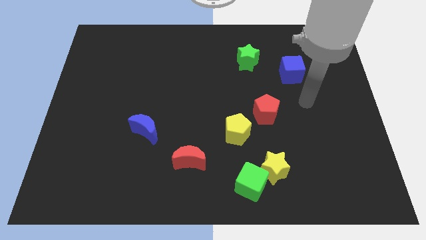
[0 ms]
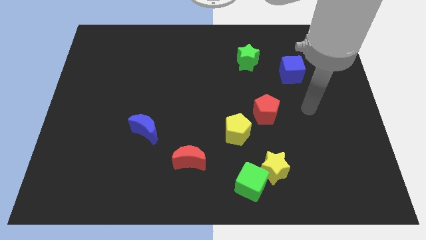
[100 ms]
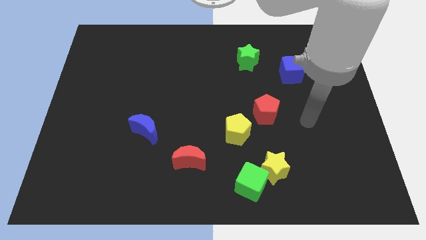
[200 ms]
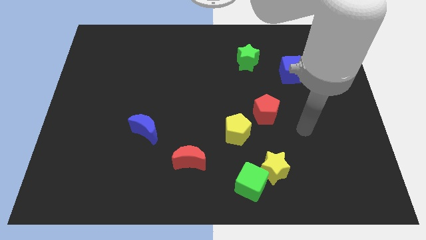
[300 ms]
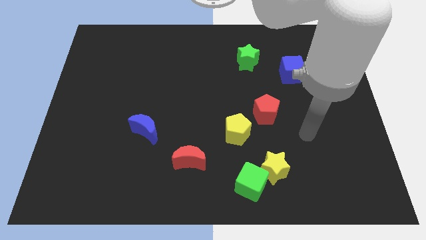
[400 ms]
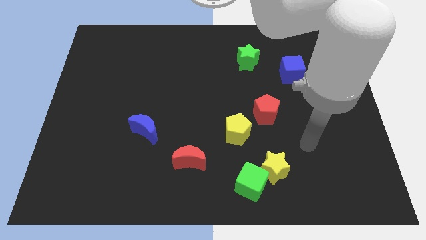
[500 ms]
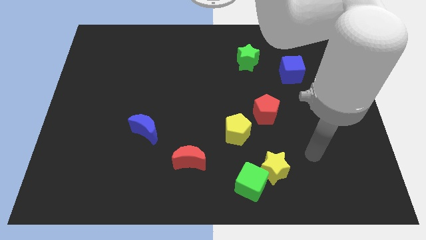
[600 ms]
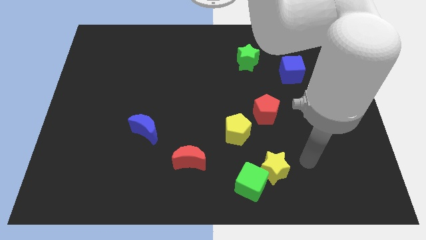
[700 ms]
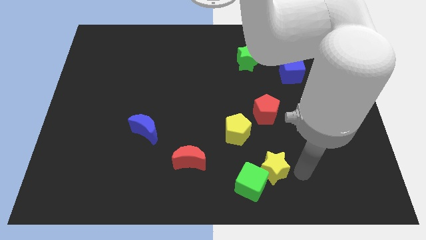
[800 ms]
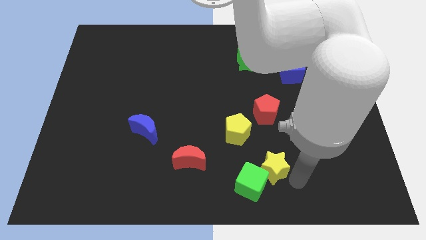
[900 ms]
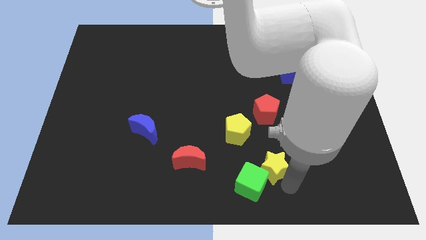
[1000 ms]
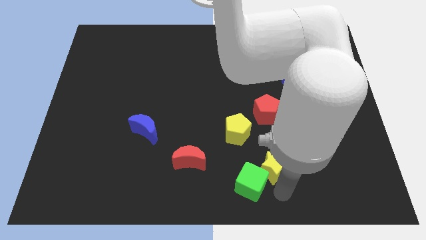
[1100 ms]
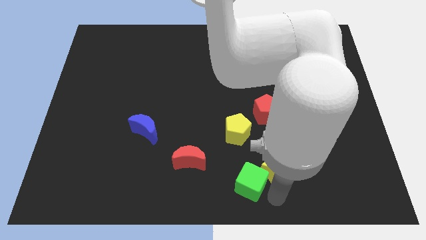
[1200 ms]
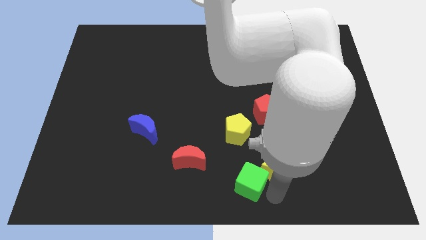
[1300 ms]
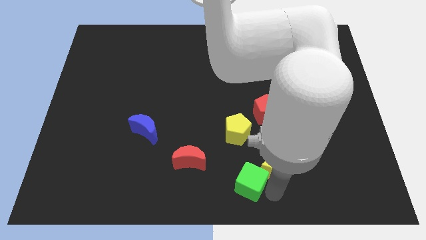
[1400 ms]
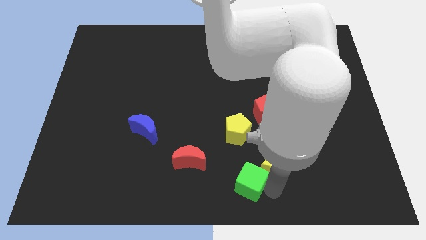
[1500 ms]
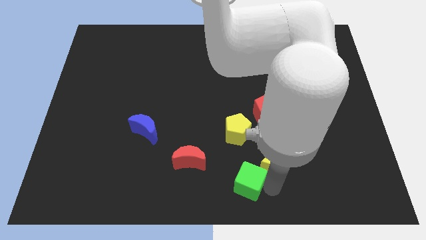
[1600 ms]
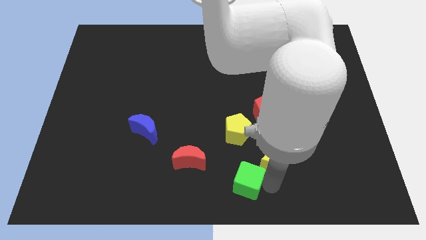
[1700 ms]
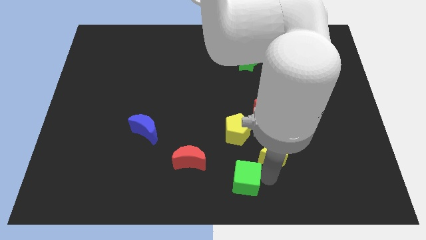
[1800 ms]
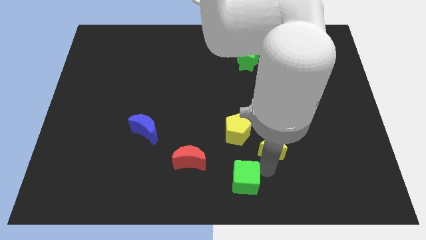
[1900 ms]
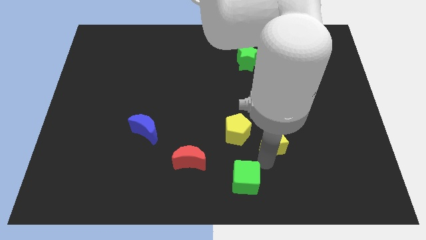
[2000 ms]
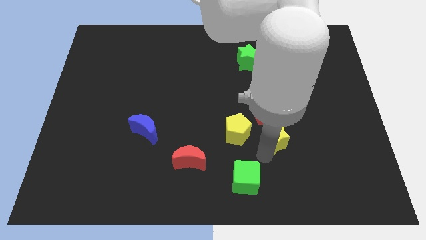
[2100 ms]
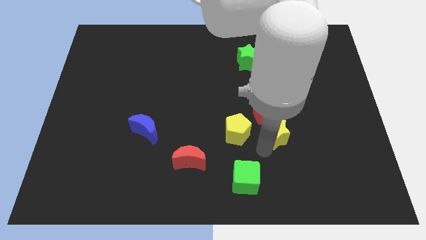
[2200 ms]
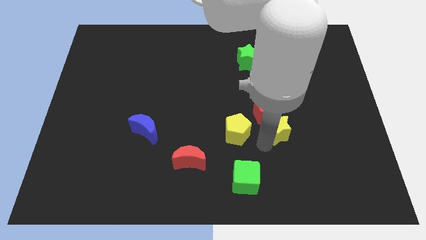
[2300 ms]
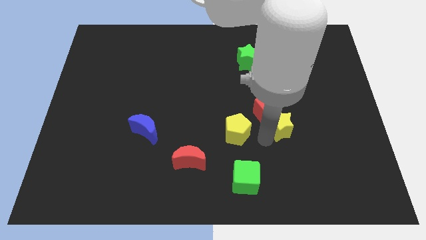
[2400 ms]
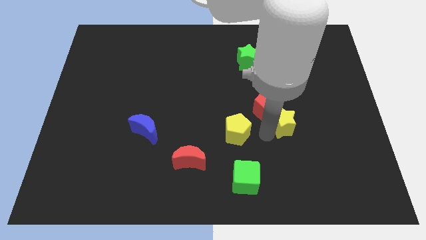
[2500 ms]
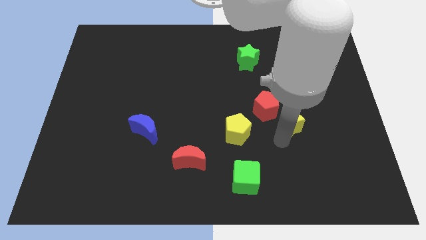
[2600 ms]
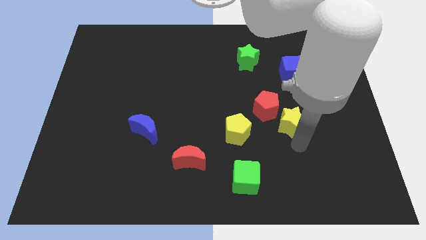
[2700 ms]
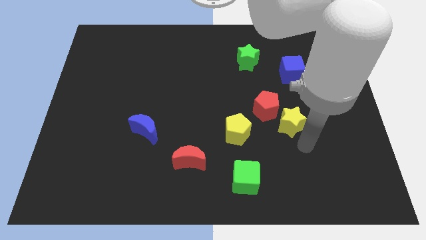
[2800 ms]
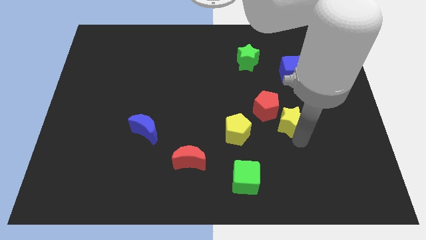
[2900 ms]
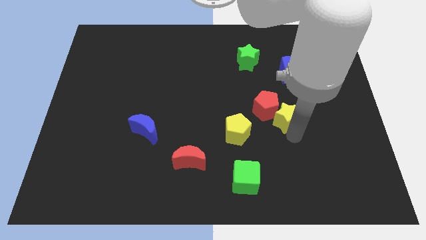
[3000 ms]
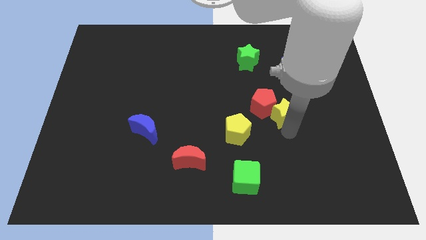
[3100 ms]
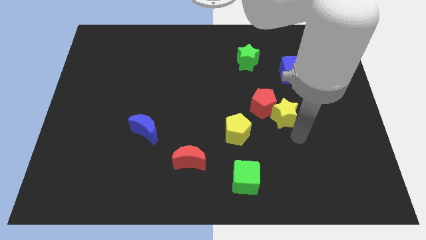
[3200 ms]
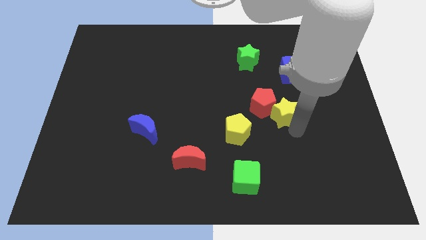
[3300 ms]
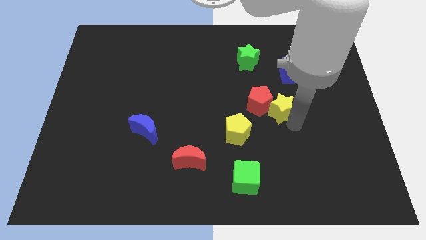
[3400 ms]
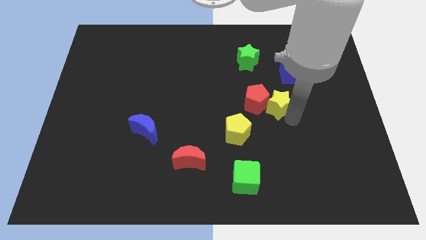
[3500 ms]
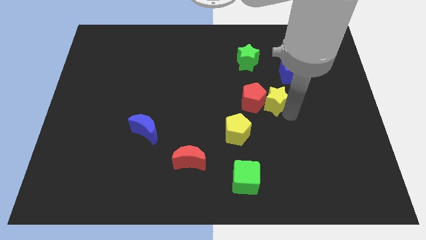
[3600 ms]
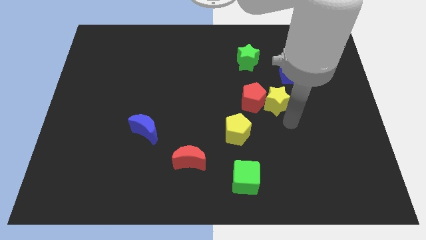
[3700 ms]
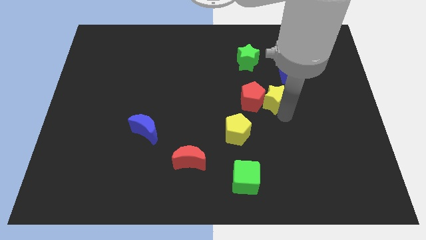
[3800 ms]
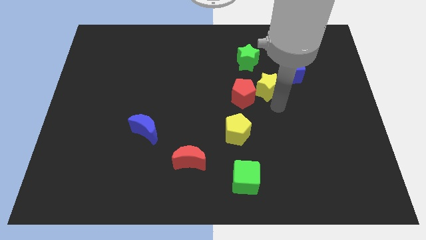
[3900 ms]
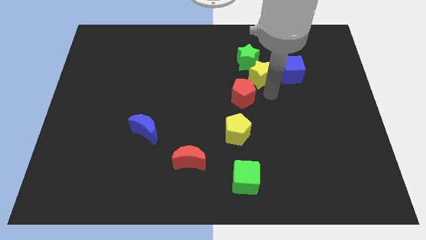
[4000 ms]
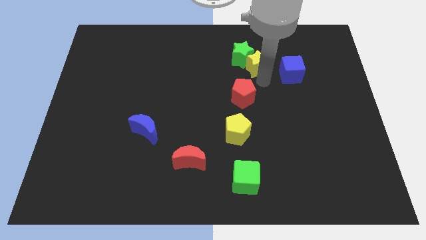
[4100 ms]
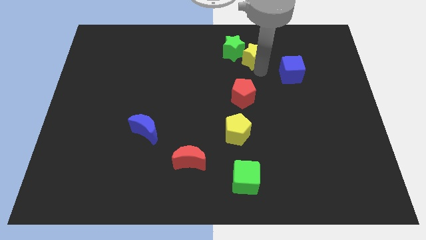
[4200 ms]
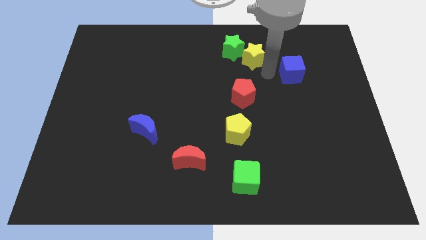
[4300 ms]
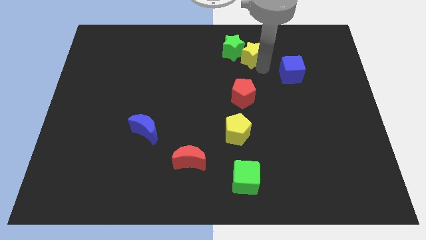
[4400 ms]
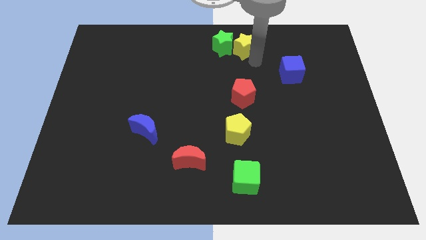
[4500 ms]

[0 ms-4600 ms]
move the yellow star to the towards your base

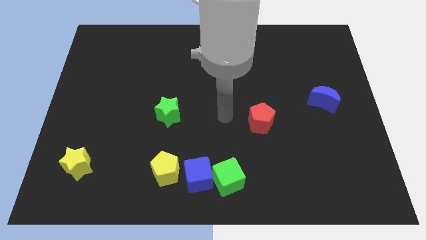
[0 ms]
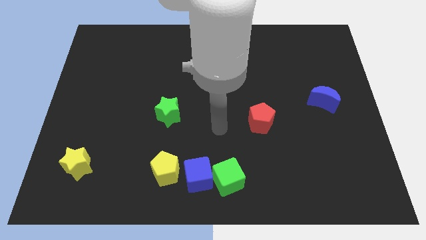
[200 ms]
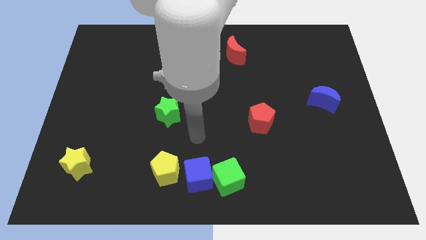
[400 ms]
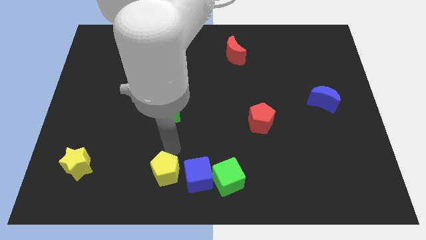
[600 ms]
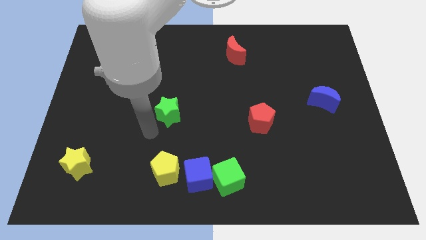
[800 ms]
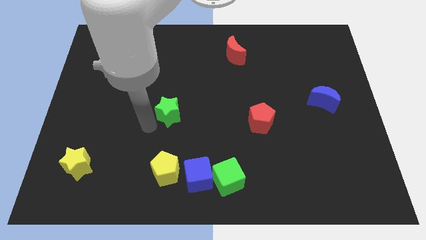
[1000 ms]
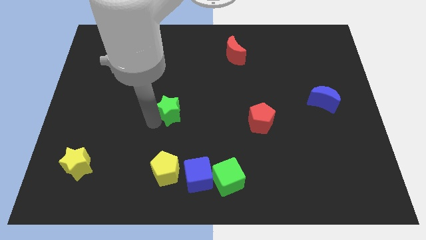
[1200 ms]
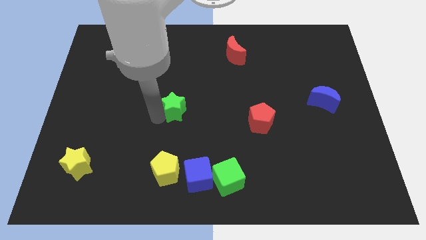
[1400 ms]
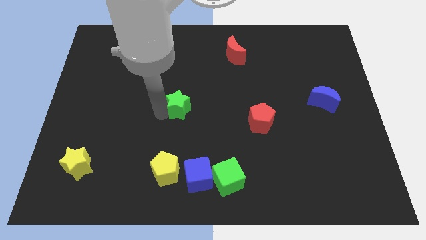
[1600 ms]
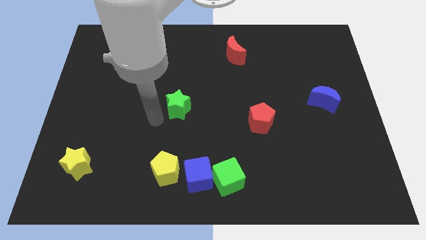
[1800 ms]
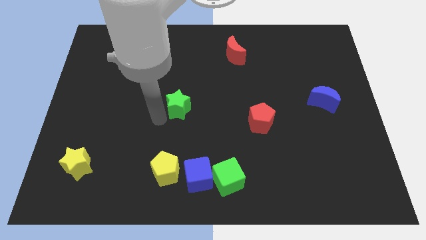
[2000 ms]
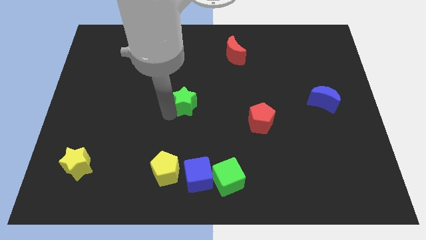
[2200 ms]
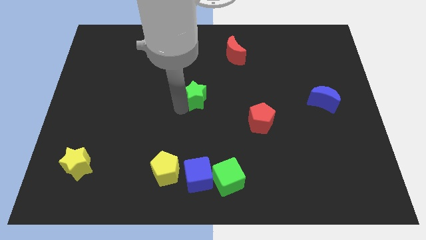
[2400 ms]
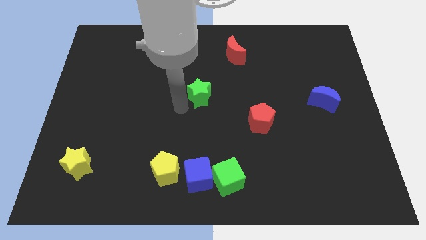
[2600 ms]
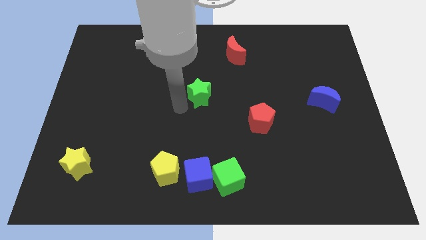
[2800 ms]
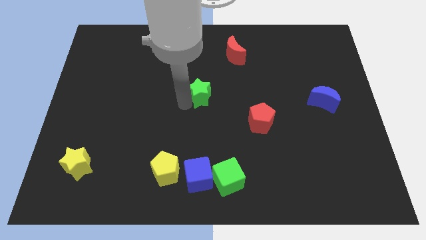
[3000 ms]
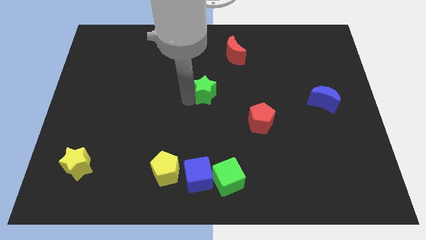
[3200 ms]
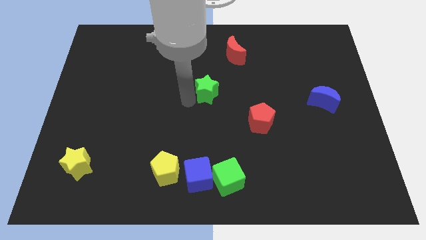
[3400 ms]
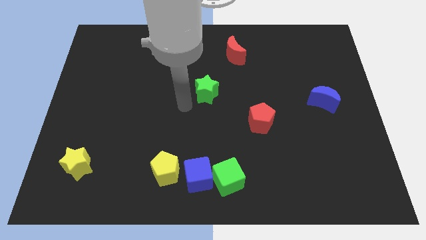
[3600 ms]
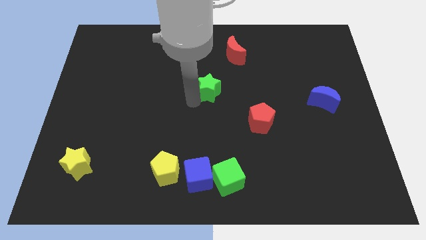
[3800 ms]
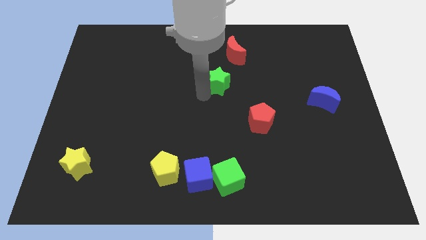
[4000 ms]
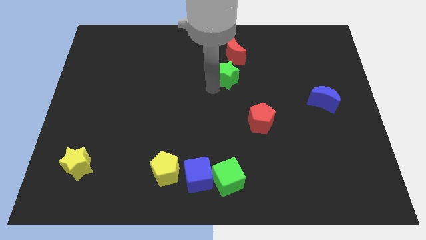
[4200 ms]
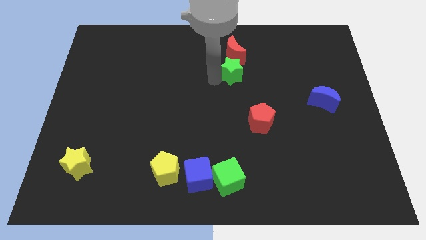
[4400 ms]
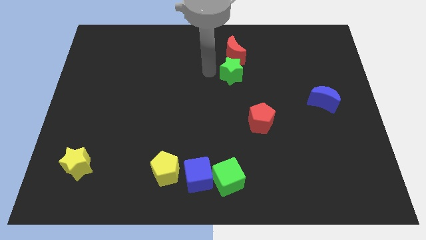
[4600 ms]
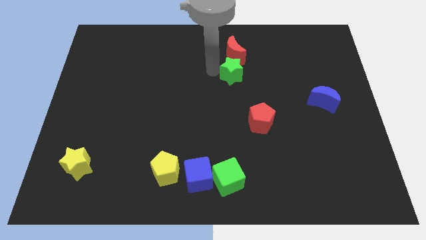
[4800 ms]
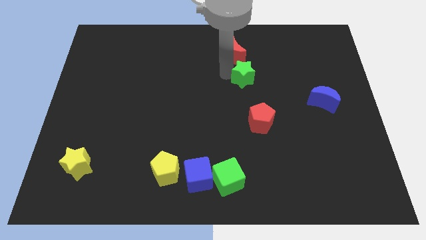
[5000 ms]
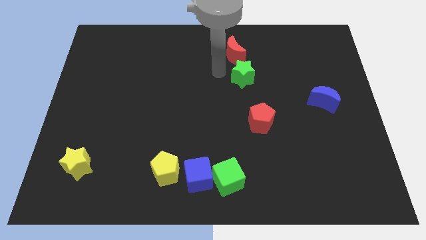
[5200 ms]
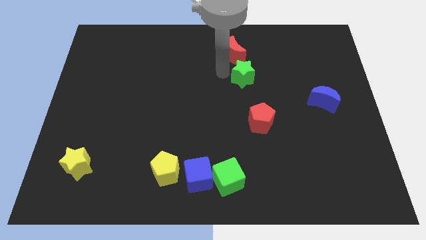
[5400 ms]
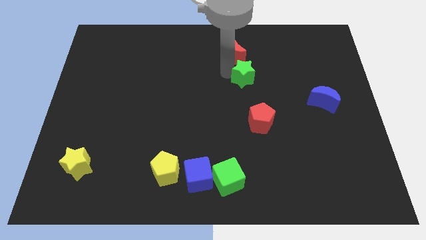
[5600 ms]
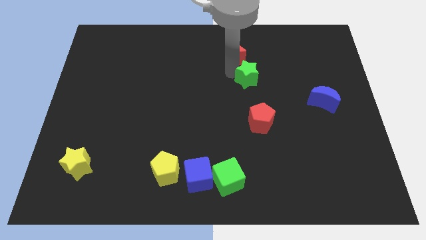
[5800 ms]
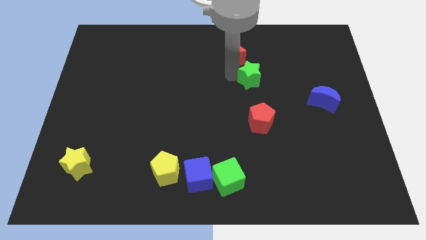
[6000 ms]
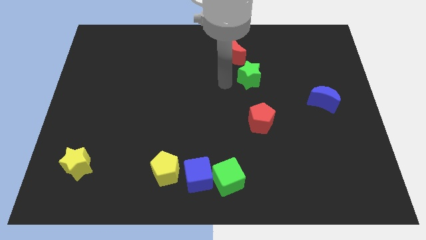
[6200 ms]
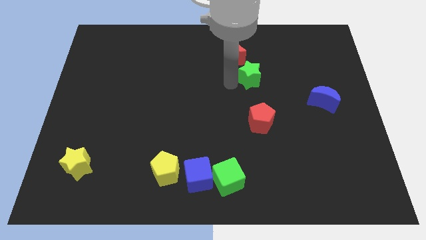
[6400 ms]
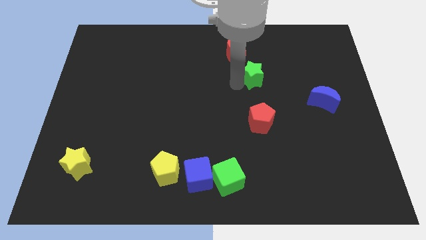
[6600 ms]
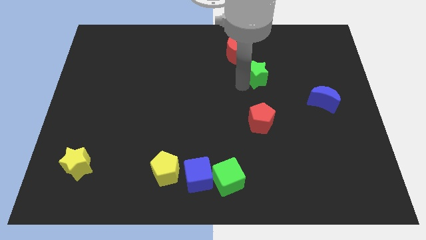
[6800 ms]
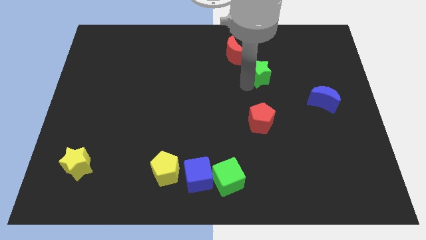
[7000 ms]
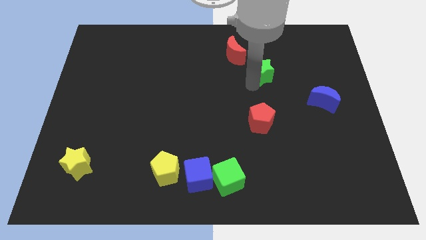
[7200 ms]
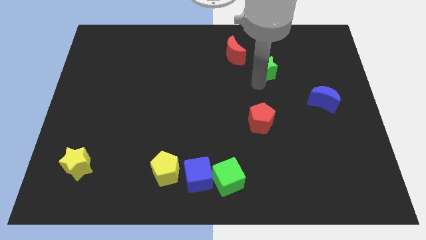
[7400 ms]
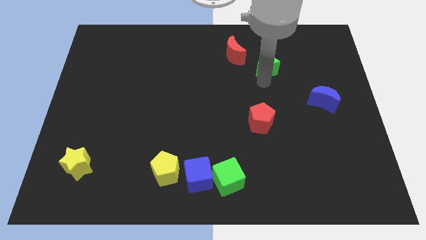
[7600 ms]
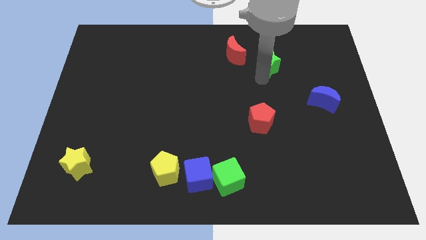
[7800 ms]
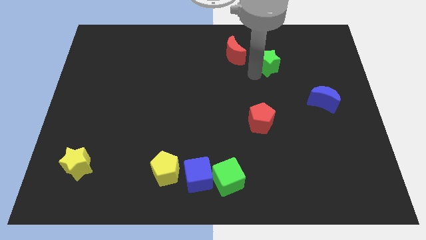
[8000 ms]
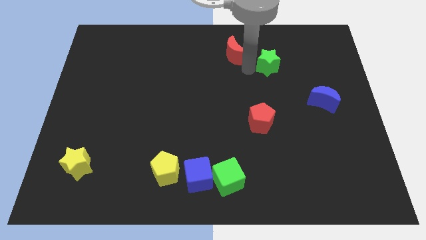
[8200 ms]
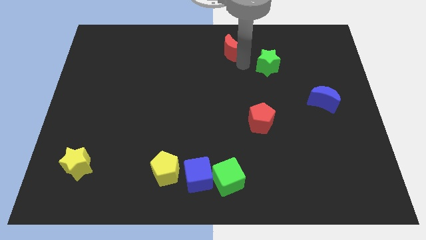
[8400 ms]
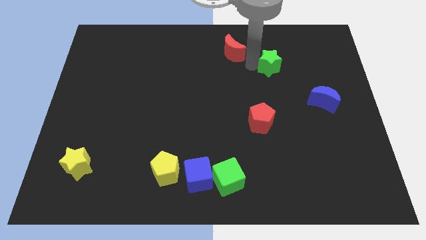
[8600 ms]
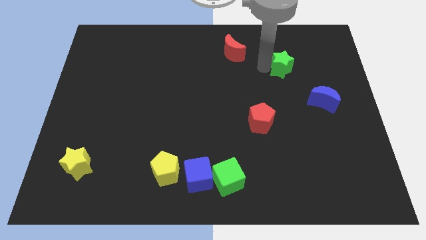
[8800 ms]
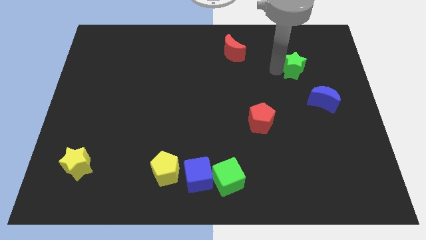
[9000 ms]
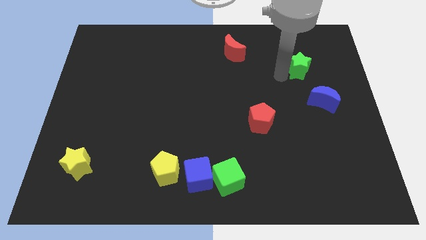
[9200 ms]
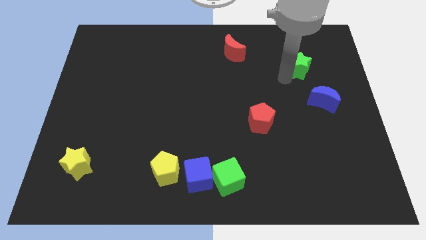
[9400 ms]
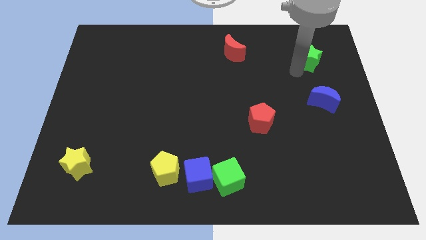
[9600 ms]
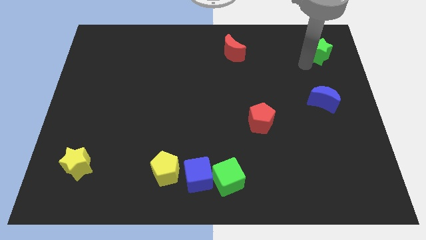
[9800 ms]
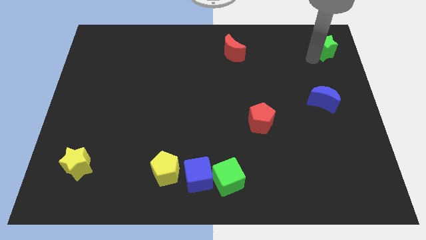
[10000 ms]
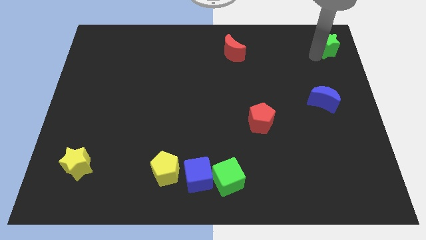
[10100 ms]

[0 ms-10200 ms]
put the green star to the top right corner
